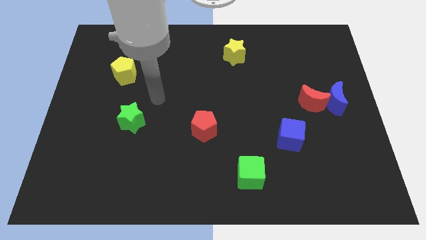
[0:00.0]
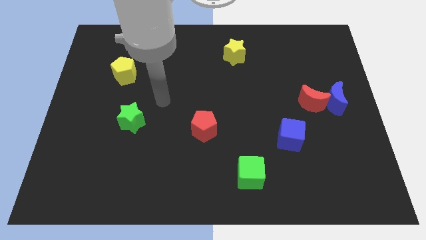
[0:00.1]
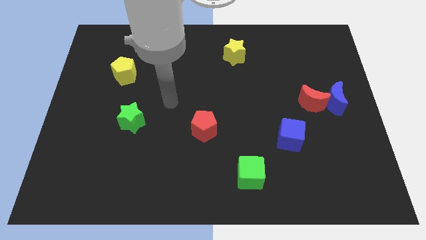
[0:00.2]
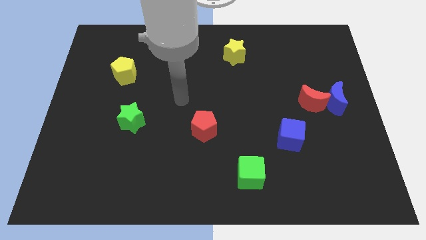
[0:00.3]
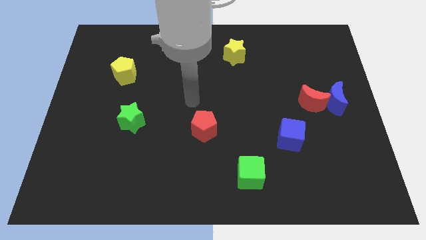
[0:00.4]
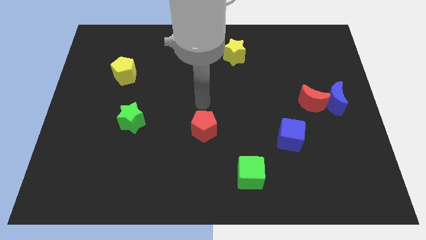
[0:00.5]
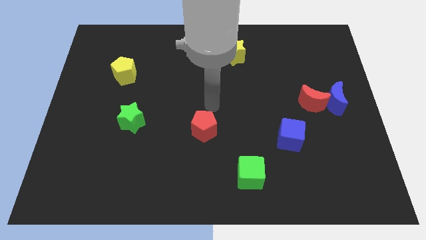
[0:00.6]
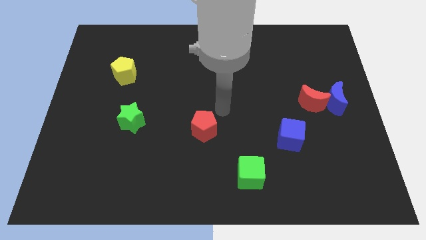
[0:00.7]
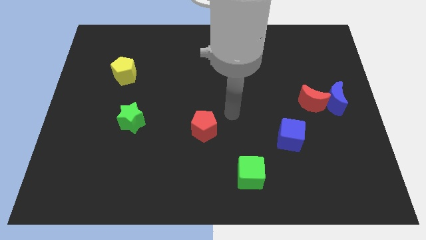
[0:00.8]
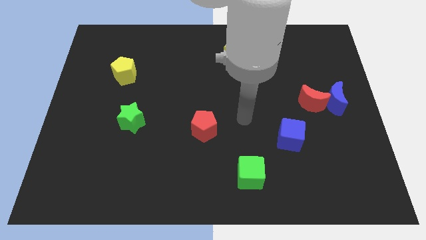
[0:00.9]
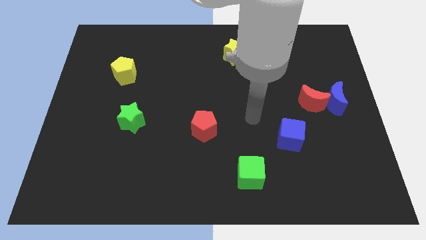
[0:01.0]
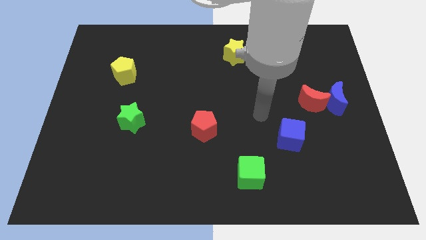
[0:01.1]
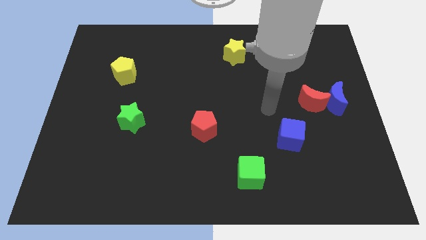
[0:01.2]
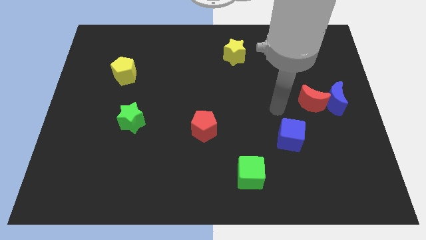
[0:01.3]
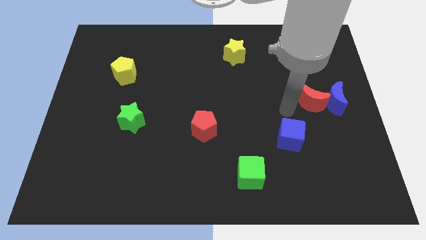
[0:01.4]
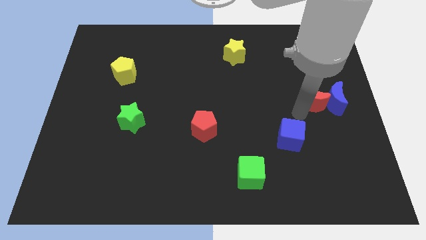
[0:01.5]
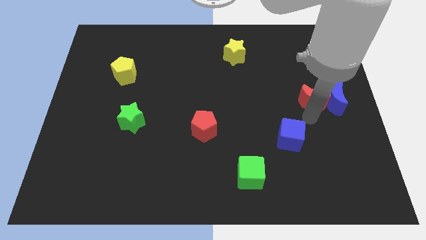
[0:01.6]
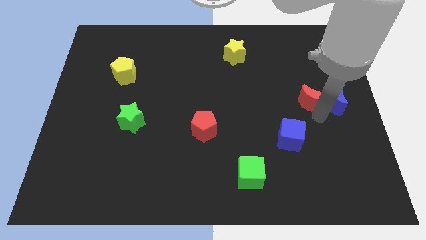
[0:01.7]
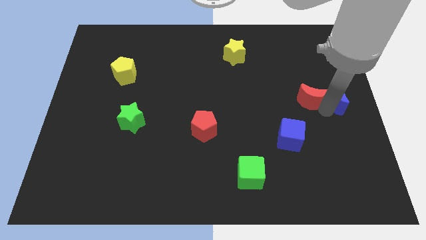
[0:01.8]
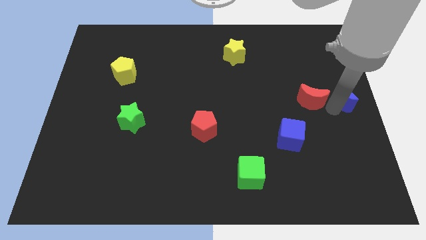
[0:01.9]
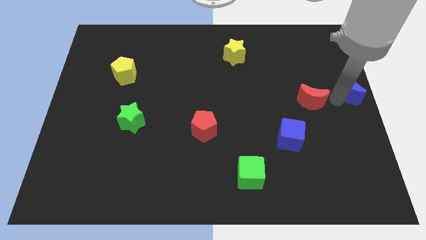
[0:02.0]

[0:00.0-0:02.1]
pull the red moon apart from the blue moon

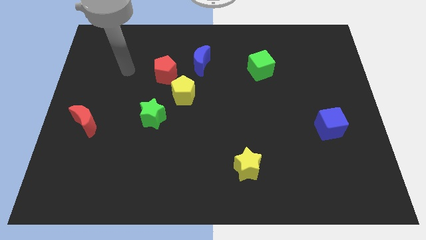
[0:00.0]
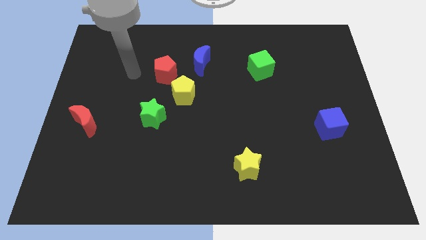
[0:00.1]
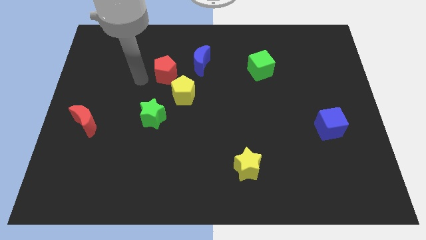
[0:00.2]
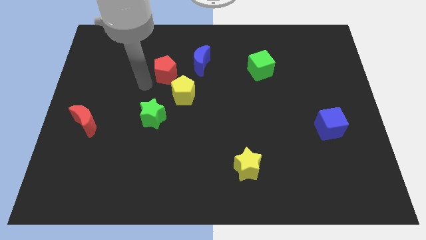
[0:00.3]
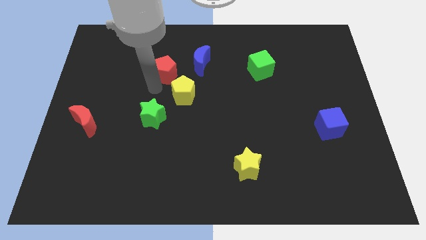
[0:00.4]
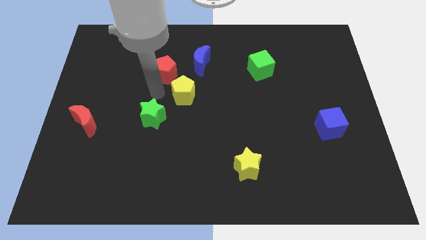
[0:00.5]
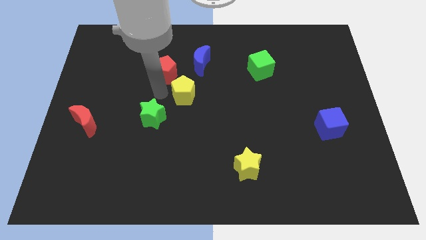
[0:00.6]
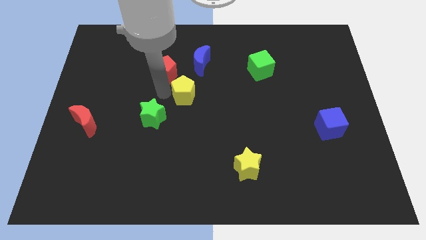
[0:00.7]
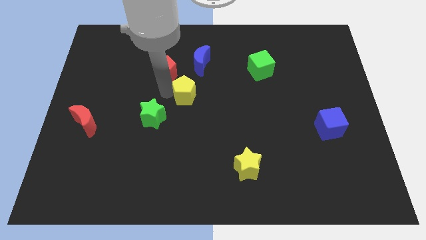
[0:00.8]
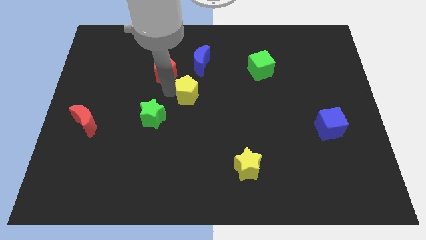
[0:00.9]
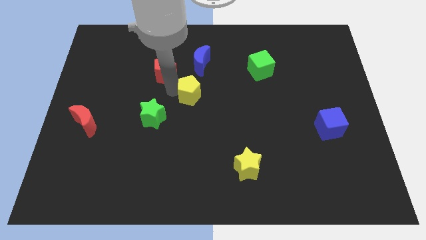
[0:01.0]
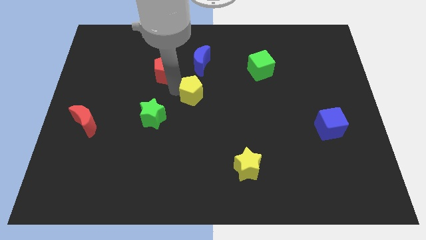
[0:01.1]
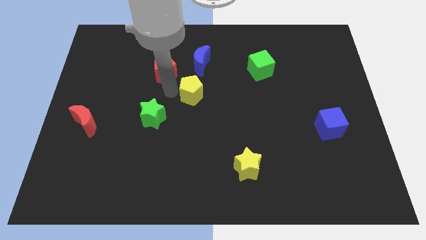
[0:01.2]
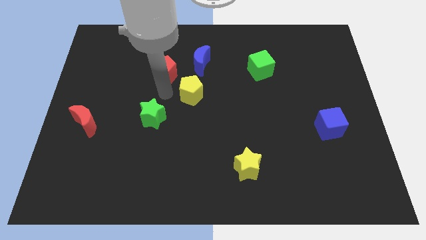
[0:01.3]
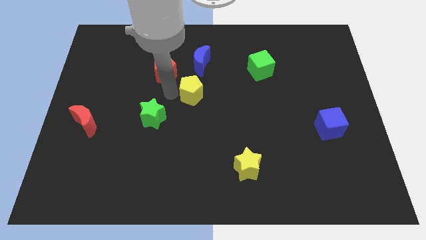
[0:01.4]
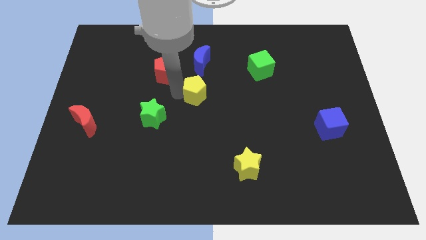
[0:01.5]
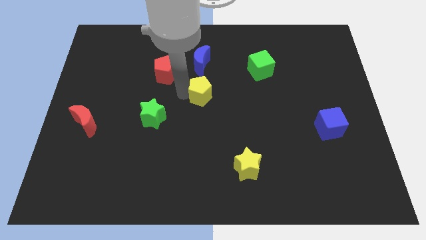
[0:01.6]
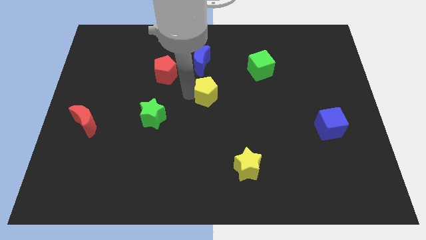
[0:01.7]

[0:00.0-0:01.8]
pull the yellow pentagon apart from the red pentagon and green star

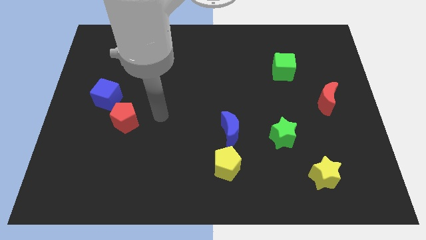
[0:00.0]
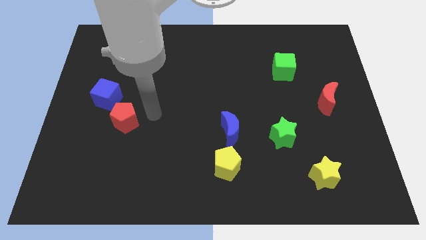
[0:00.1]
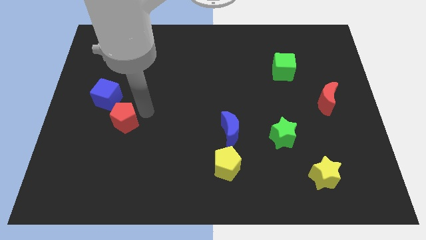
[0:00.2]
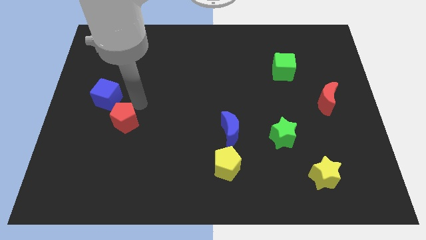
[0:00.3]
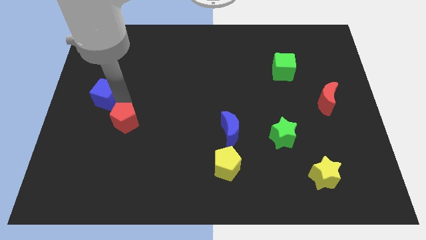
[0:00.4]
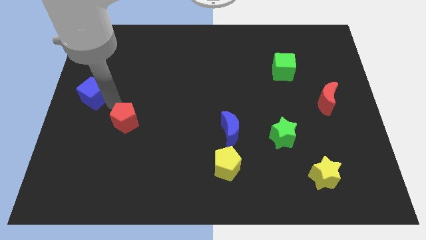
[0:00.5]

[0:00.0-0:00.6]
separate the red pentagon from the blue cube

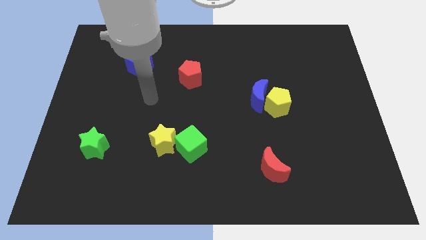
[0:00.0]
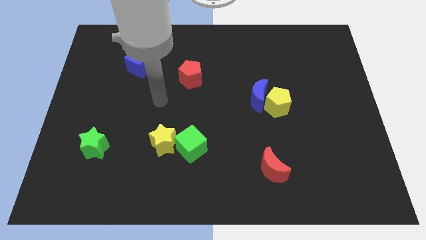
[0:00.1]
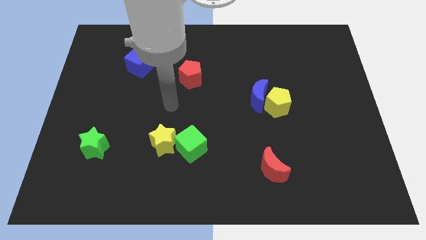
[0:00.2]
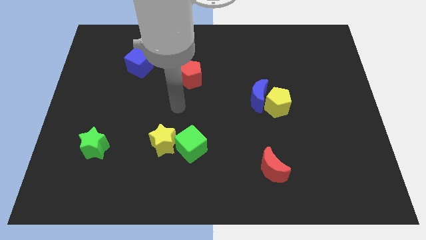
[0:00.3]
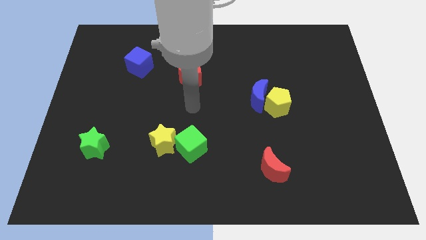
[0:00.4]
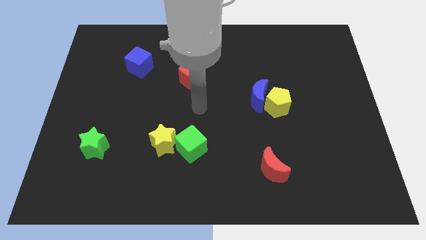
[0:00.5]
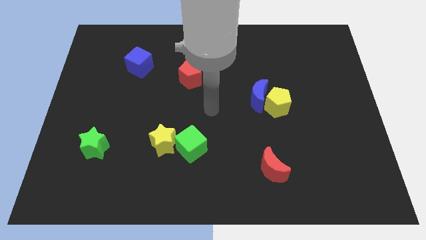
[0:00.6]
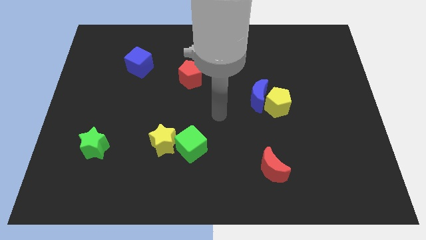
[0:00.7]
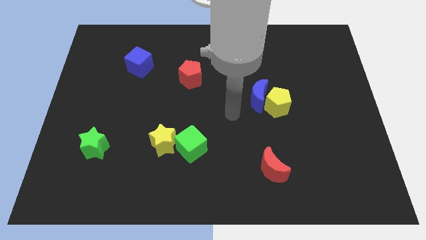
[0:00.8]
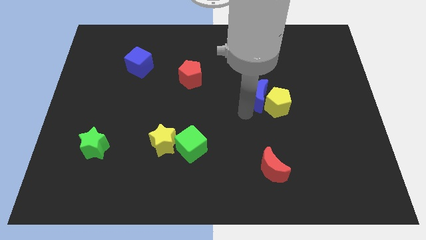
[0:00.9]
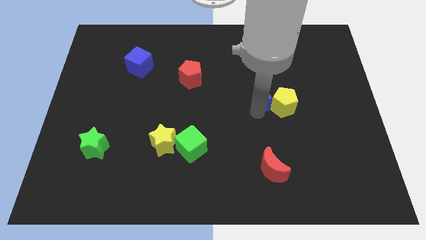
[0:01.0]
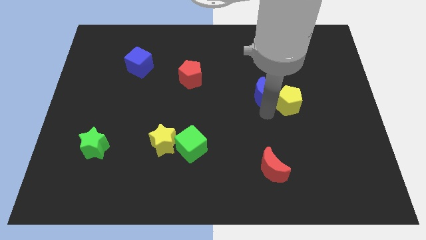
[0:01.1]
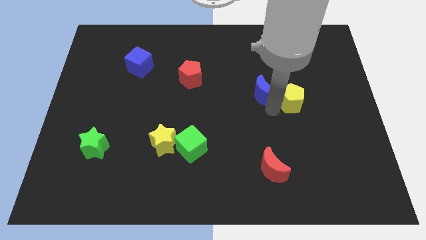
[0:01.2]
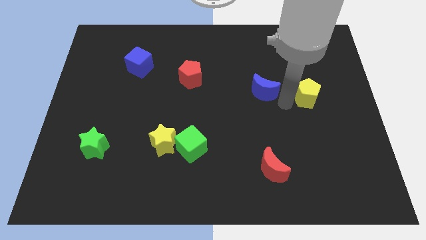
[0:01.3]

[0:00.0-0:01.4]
pull the blue moon apart from the yellow pentagon

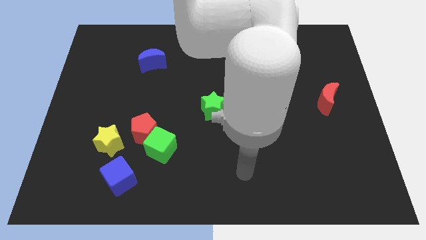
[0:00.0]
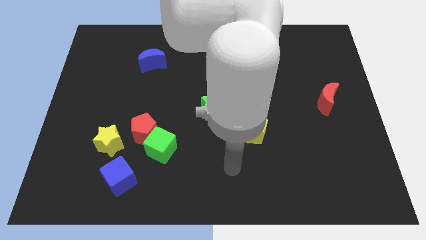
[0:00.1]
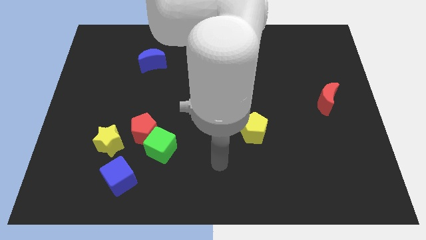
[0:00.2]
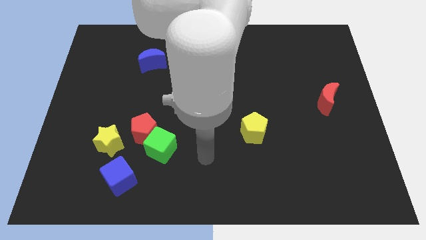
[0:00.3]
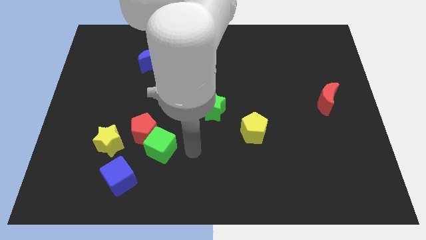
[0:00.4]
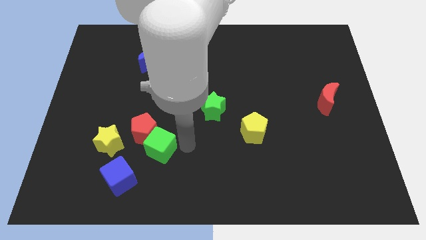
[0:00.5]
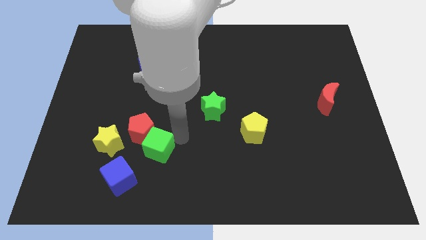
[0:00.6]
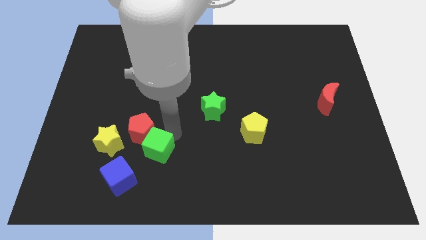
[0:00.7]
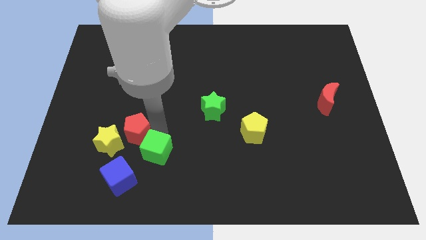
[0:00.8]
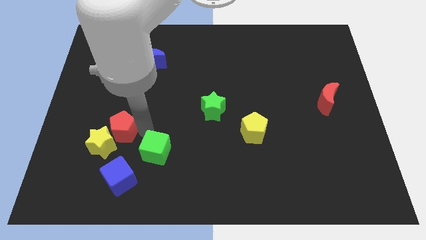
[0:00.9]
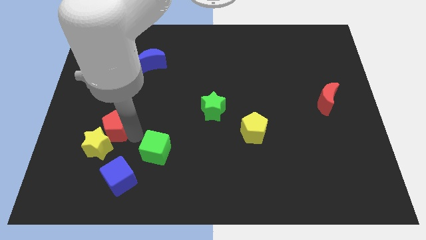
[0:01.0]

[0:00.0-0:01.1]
separate the green cube from the red pentagon

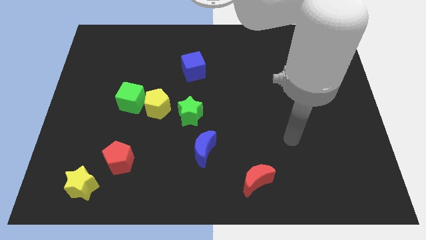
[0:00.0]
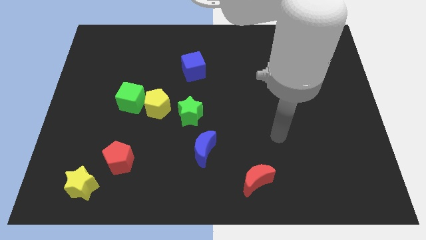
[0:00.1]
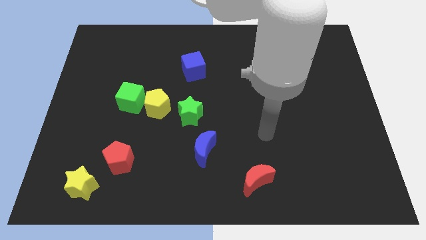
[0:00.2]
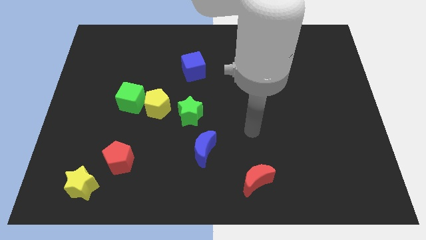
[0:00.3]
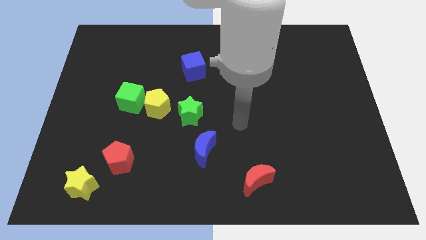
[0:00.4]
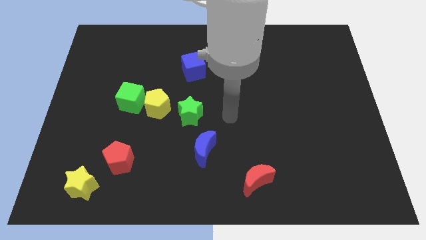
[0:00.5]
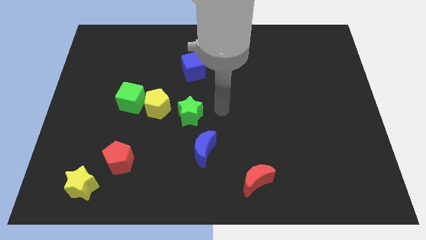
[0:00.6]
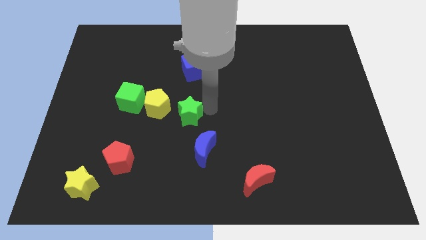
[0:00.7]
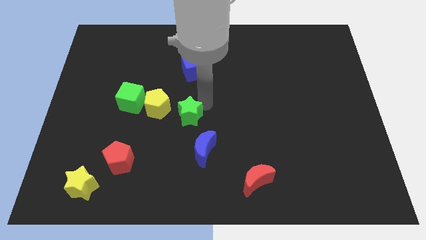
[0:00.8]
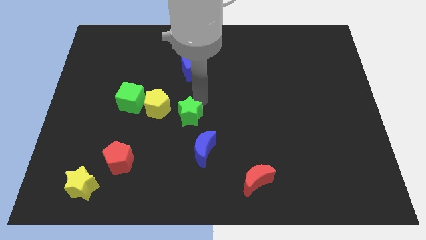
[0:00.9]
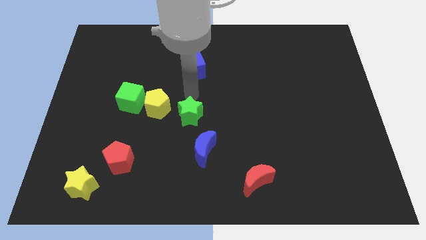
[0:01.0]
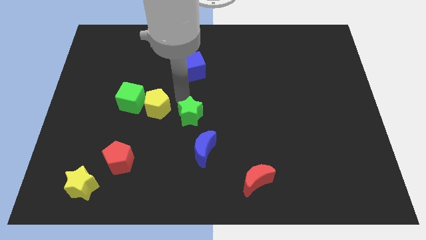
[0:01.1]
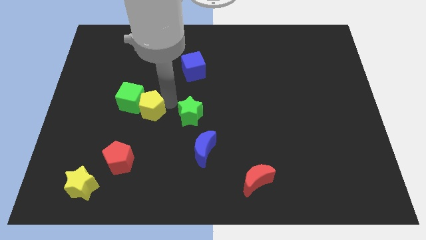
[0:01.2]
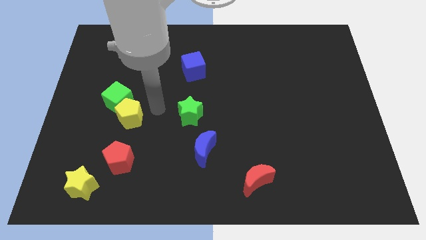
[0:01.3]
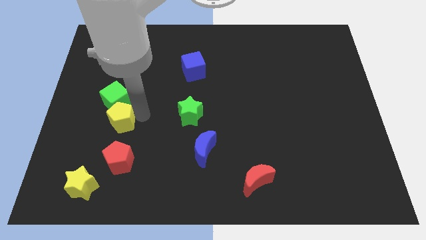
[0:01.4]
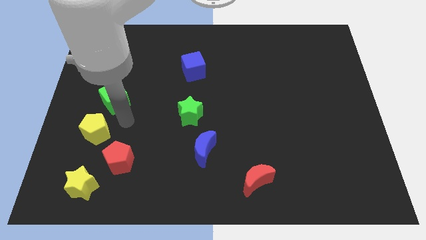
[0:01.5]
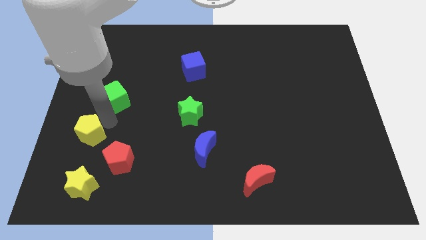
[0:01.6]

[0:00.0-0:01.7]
move the green cube away from the yellow pentagon

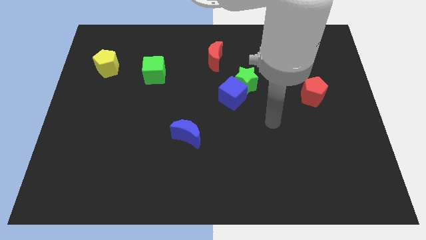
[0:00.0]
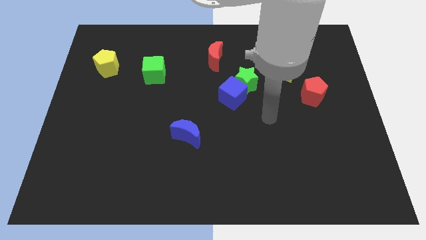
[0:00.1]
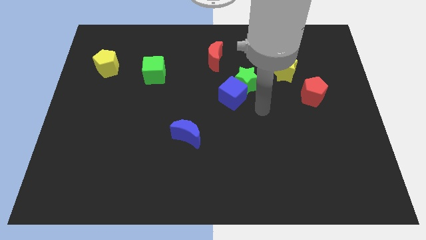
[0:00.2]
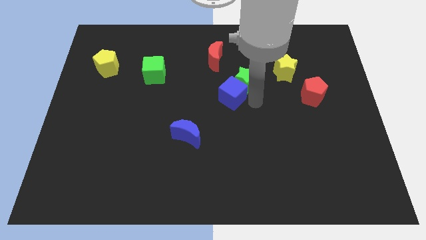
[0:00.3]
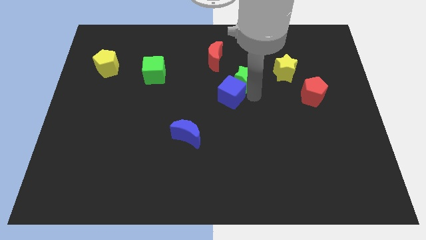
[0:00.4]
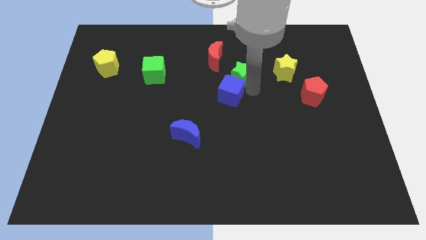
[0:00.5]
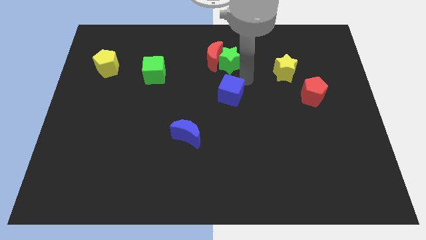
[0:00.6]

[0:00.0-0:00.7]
pull the blue cube apart from the green star
